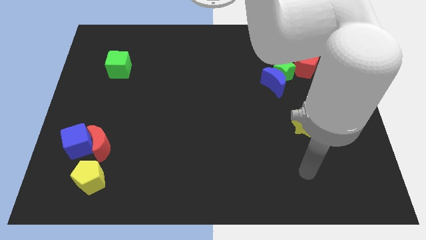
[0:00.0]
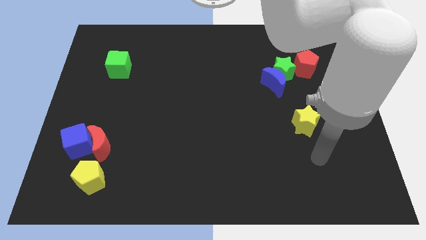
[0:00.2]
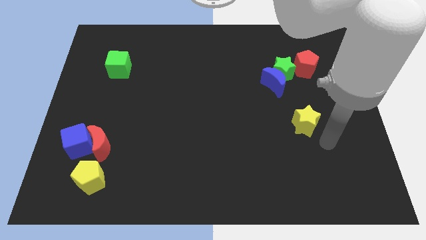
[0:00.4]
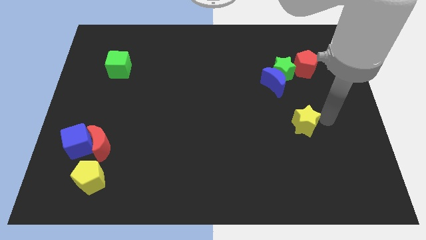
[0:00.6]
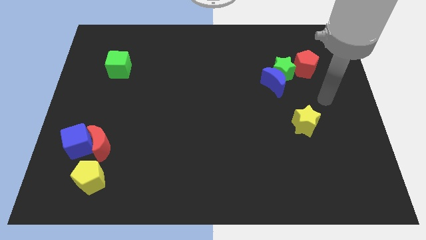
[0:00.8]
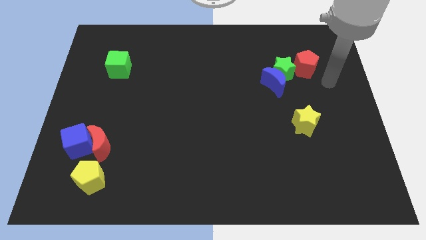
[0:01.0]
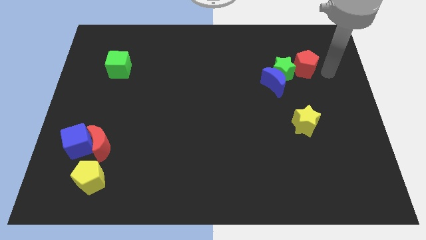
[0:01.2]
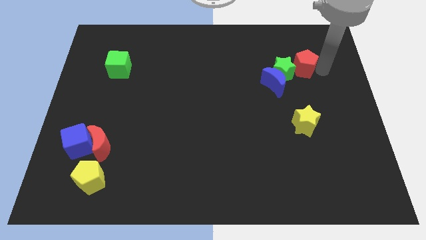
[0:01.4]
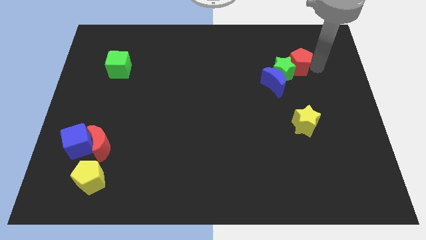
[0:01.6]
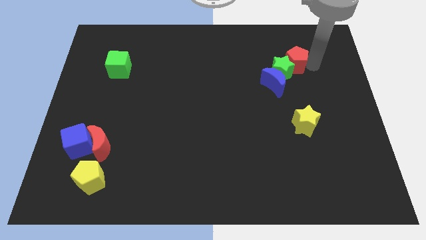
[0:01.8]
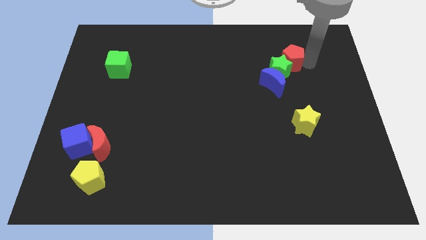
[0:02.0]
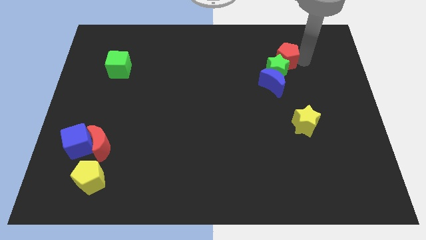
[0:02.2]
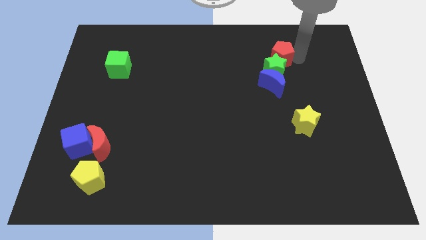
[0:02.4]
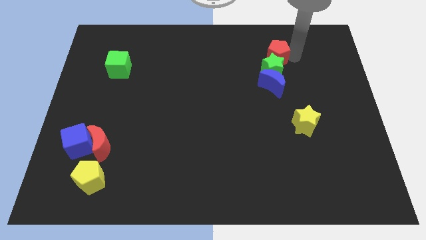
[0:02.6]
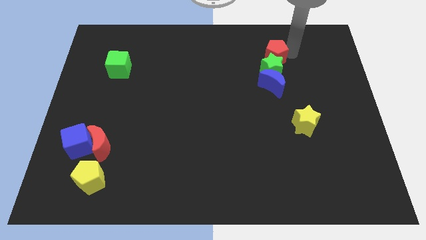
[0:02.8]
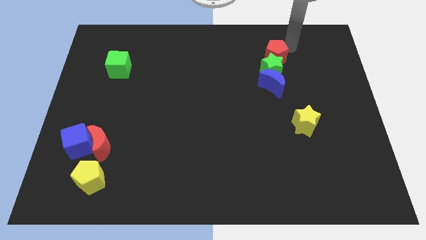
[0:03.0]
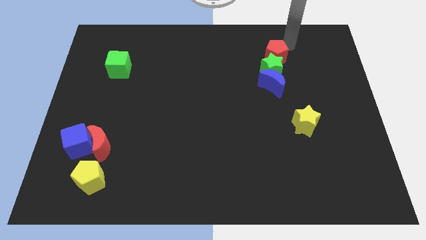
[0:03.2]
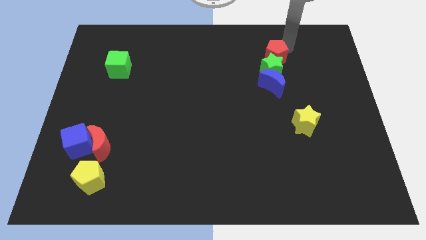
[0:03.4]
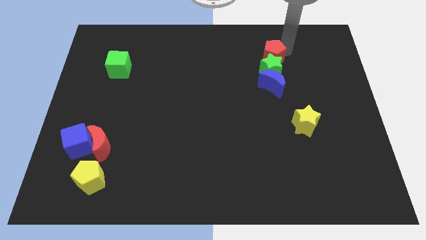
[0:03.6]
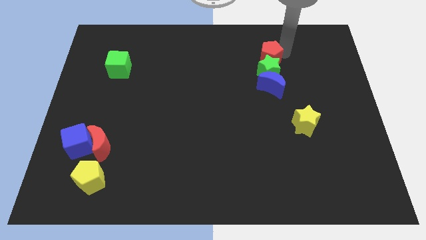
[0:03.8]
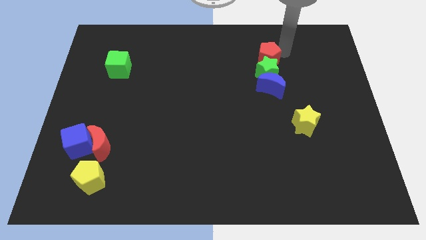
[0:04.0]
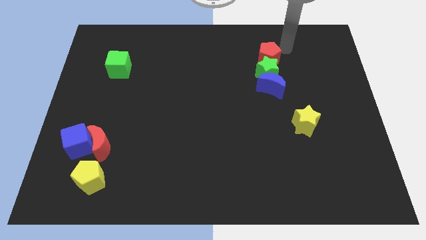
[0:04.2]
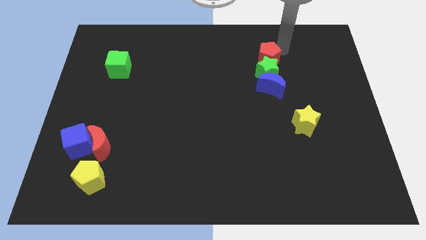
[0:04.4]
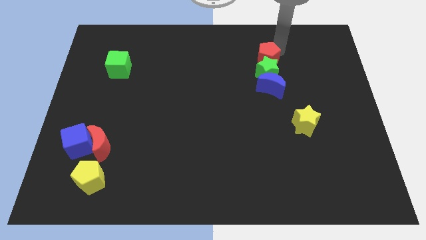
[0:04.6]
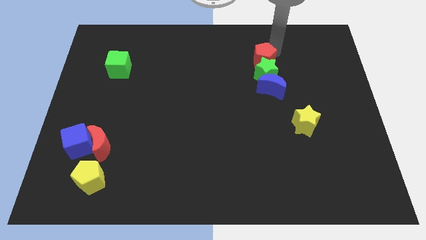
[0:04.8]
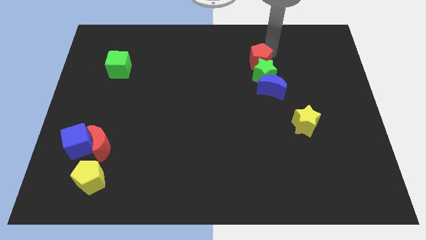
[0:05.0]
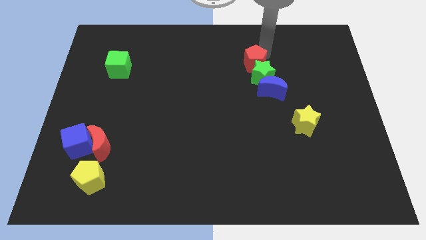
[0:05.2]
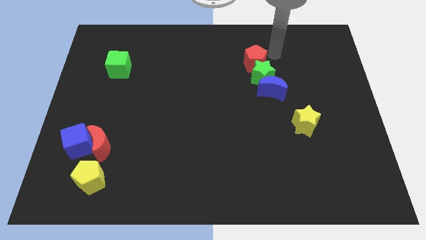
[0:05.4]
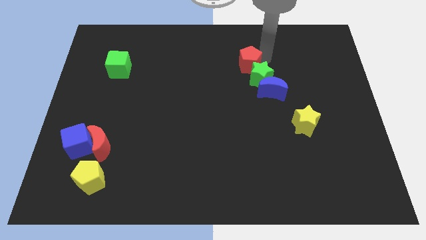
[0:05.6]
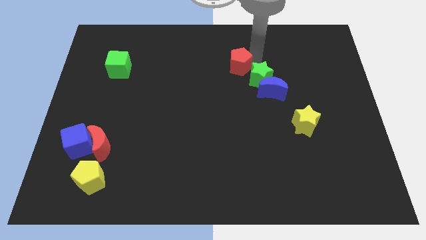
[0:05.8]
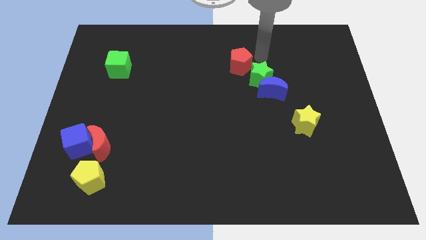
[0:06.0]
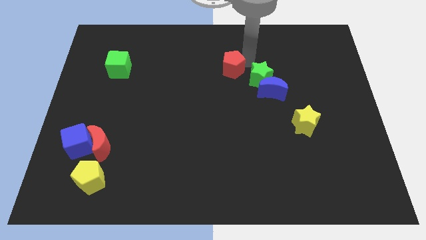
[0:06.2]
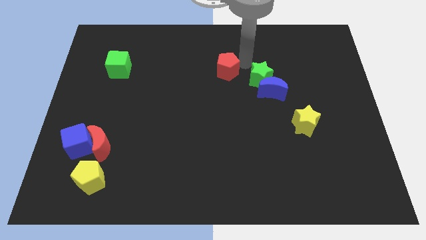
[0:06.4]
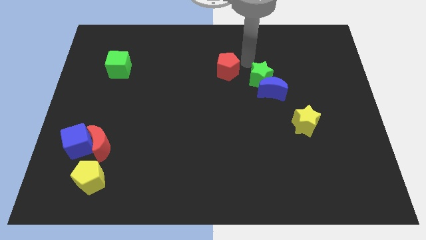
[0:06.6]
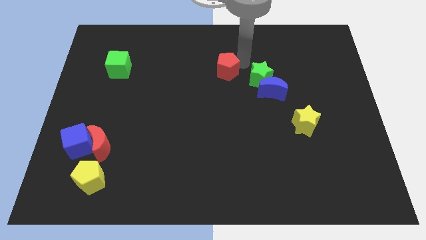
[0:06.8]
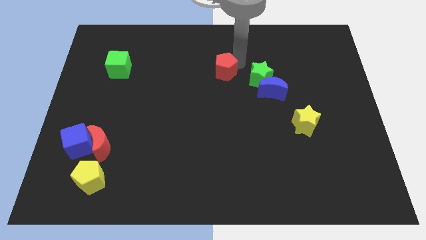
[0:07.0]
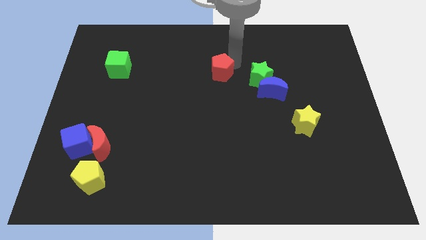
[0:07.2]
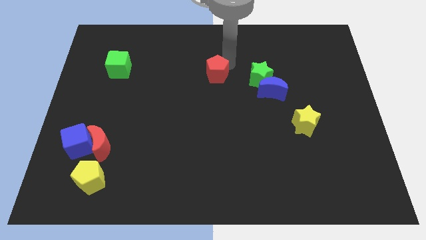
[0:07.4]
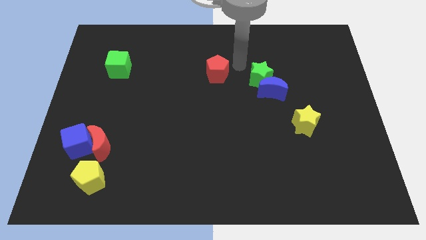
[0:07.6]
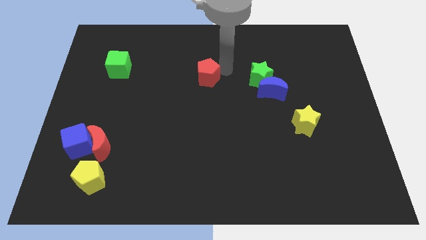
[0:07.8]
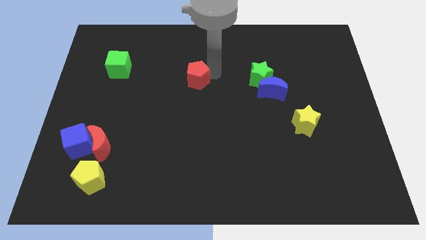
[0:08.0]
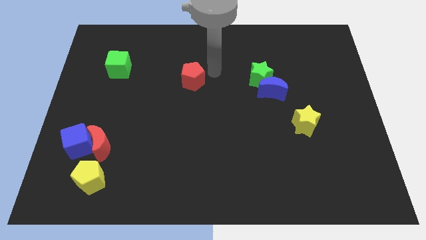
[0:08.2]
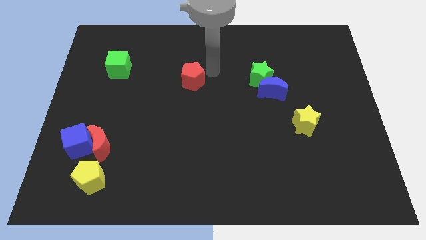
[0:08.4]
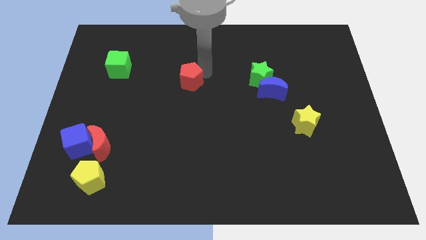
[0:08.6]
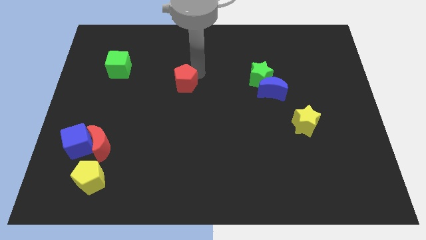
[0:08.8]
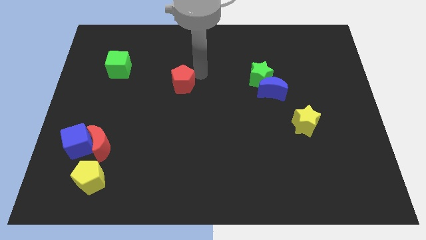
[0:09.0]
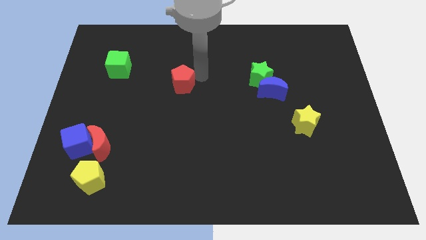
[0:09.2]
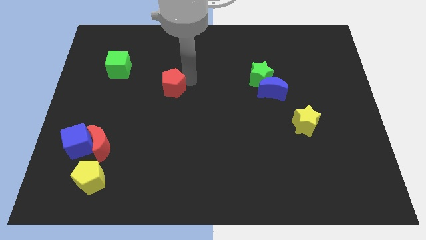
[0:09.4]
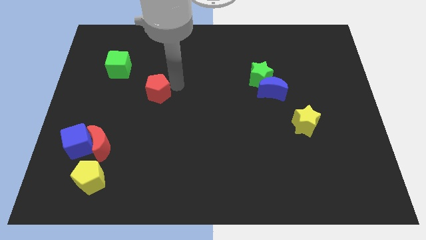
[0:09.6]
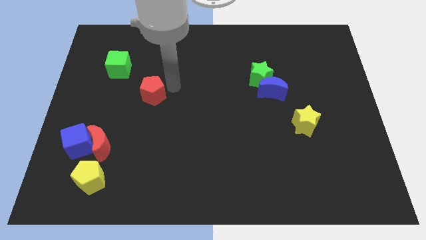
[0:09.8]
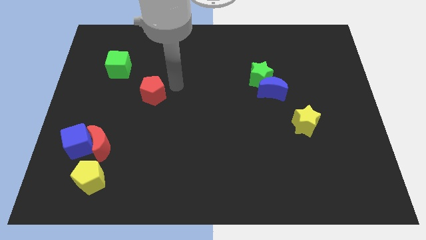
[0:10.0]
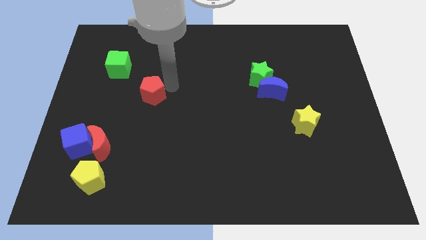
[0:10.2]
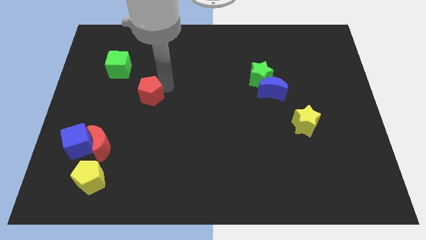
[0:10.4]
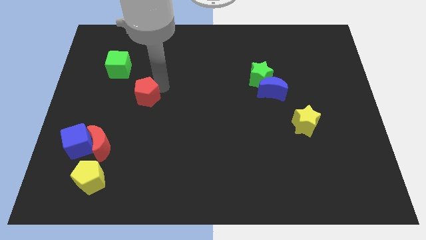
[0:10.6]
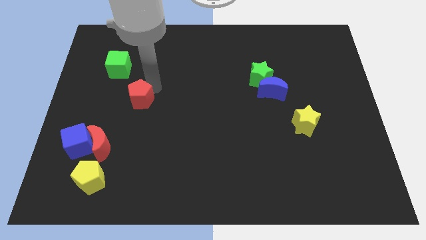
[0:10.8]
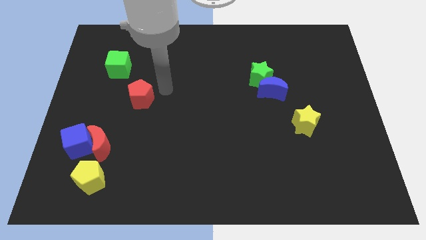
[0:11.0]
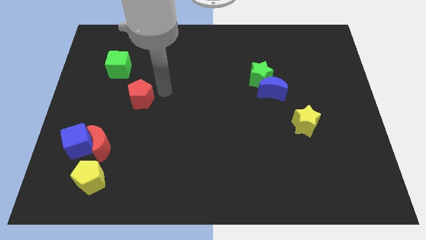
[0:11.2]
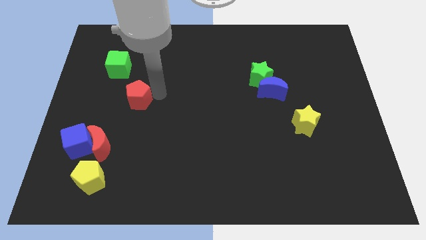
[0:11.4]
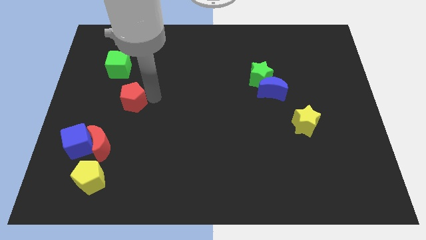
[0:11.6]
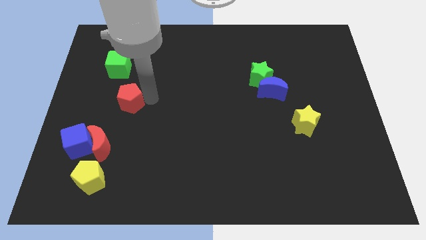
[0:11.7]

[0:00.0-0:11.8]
move the red pentagon above the red moon

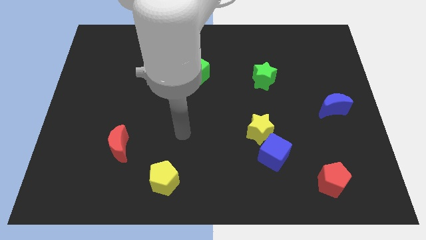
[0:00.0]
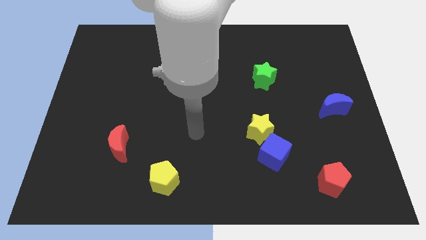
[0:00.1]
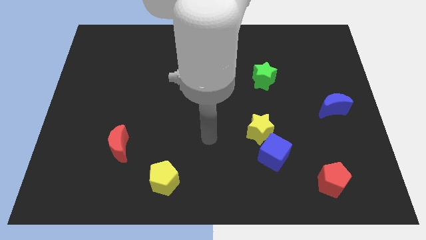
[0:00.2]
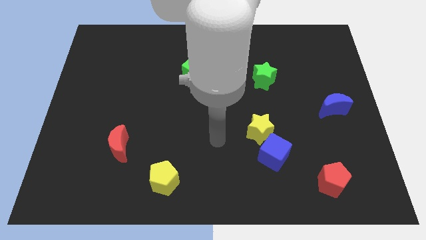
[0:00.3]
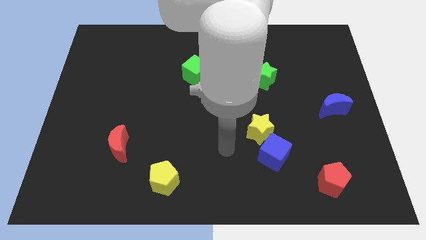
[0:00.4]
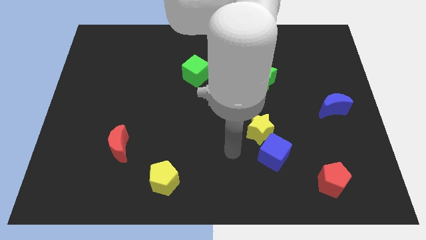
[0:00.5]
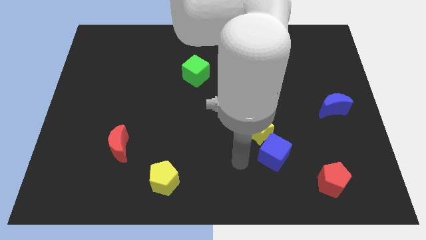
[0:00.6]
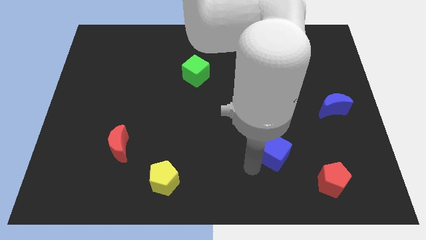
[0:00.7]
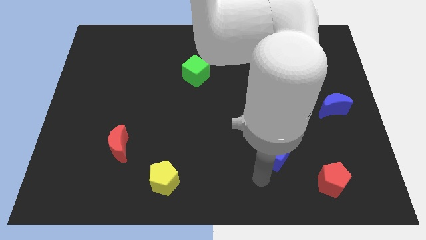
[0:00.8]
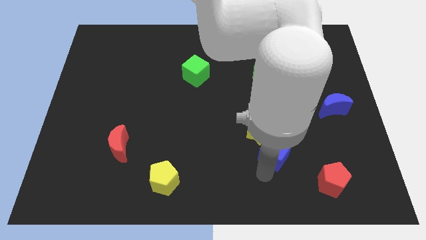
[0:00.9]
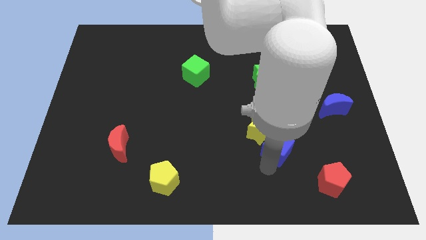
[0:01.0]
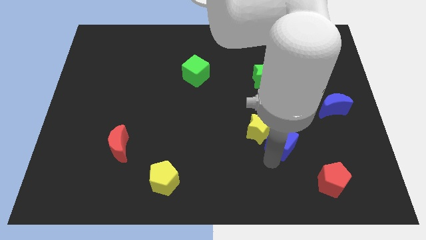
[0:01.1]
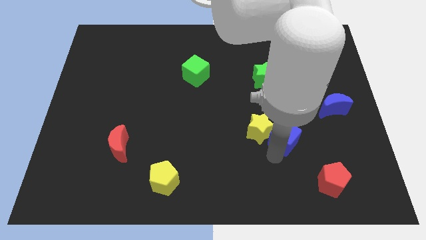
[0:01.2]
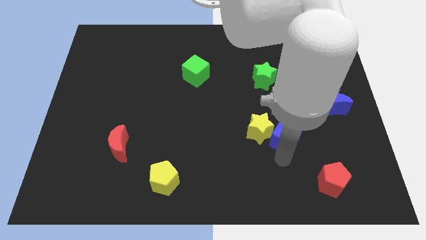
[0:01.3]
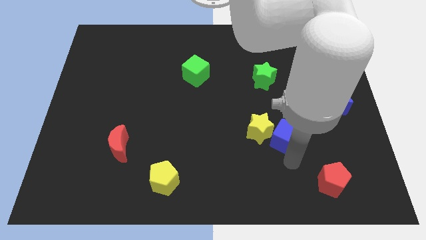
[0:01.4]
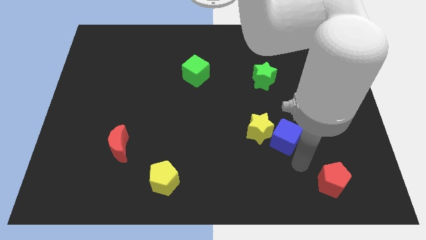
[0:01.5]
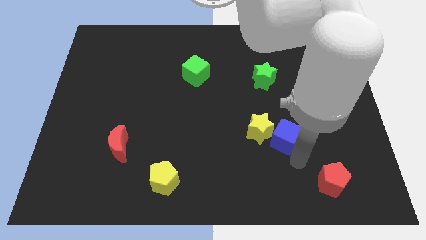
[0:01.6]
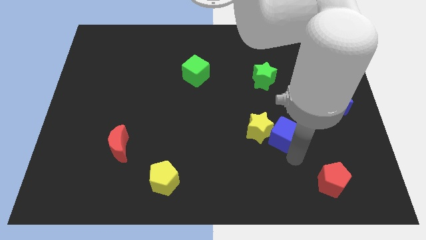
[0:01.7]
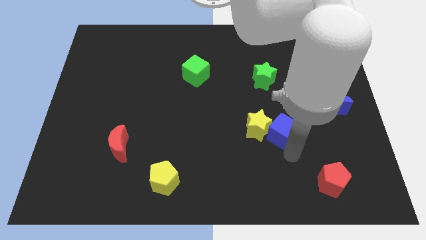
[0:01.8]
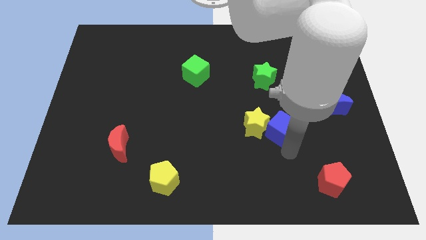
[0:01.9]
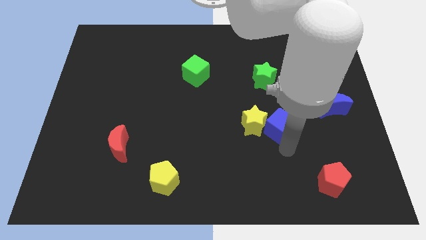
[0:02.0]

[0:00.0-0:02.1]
move the blue cube to the bottom of the green star

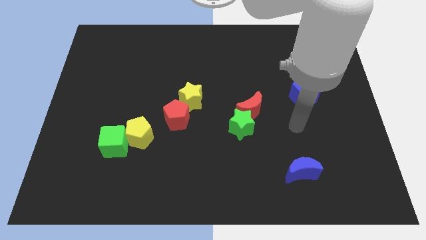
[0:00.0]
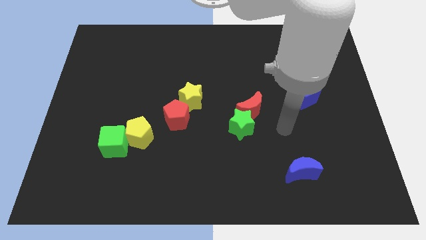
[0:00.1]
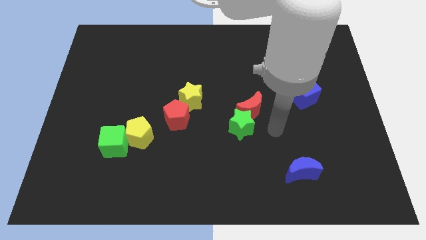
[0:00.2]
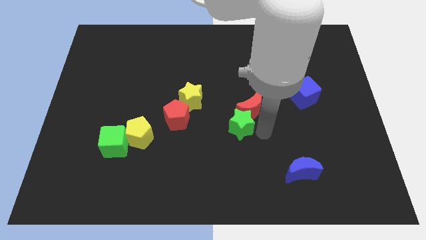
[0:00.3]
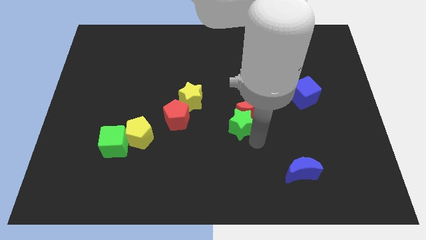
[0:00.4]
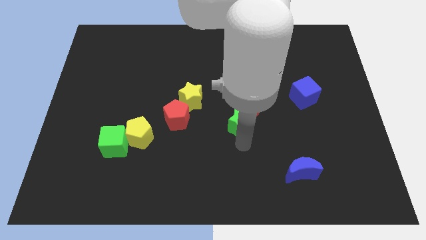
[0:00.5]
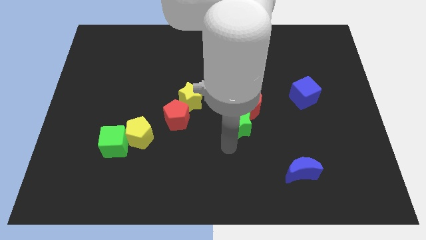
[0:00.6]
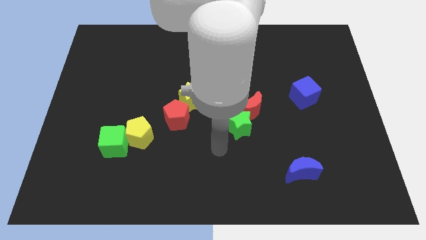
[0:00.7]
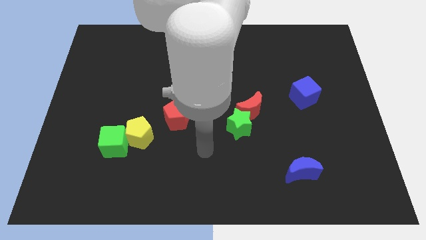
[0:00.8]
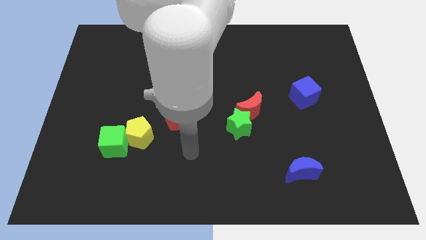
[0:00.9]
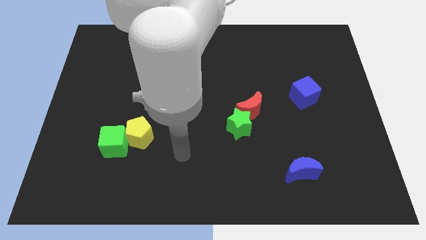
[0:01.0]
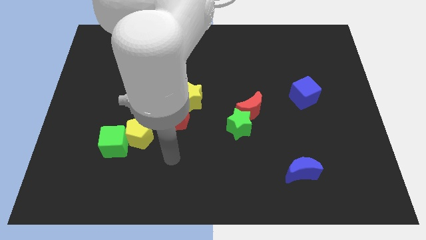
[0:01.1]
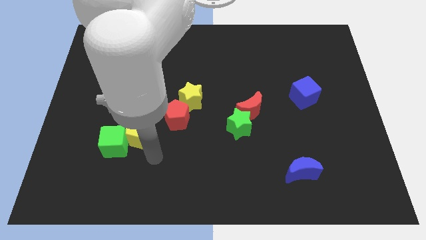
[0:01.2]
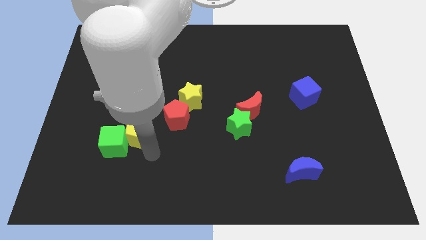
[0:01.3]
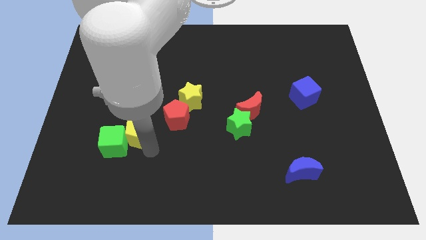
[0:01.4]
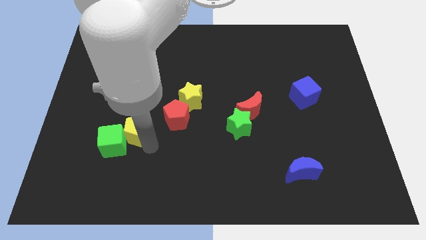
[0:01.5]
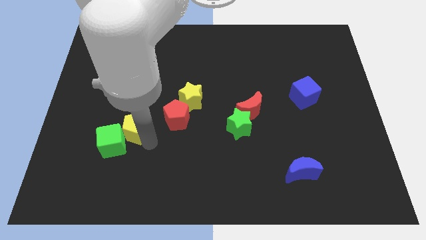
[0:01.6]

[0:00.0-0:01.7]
put the yellow pentagon to the top of the green cube
